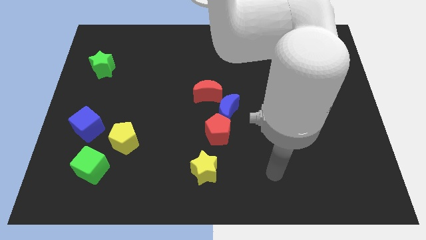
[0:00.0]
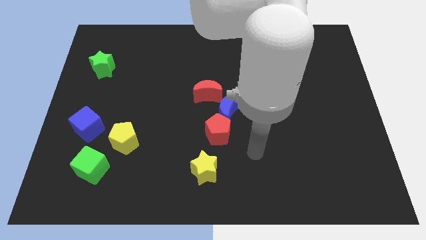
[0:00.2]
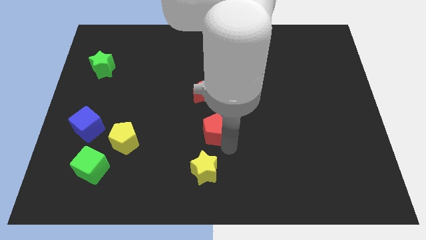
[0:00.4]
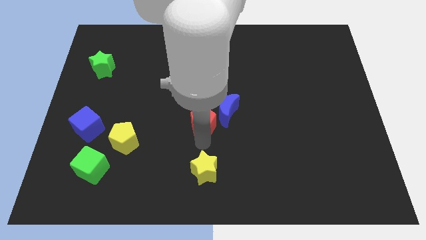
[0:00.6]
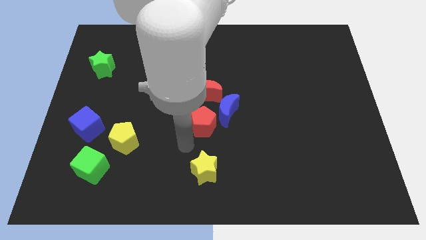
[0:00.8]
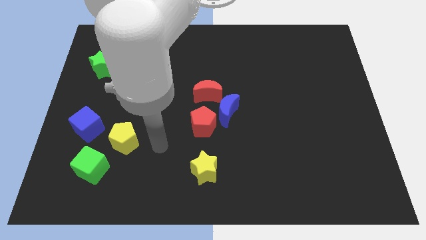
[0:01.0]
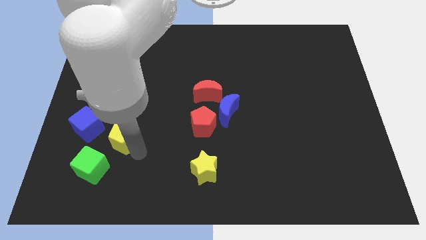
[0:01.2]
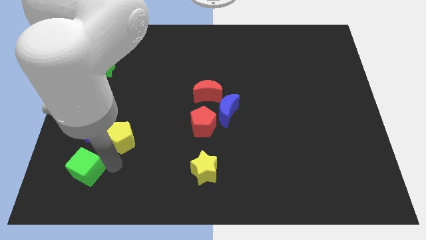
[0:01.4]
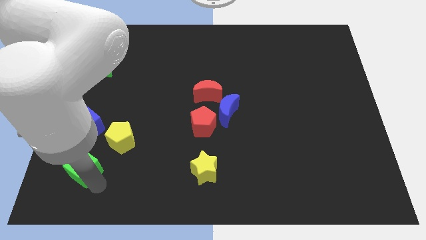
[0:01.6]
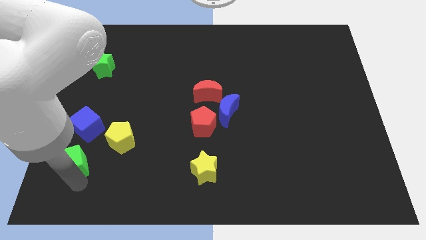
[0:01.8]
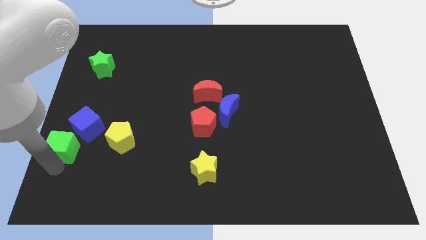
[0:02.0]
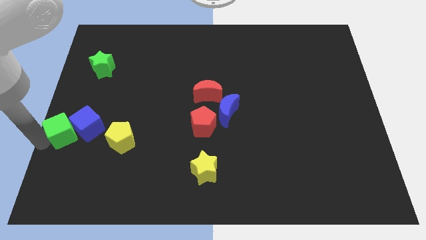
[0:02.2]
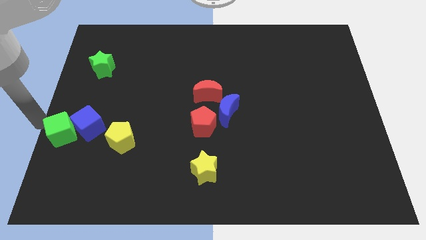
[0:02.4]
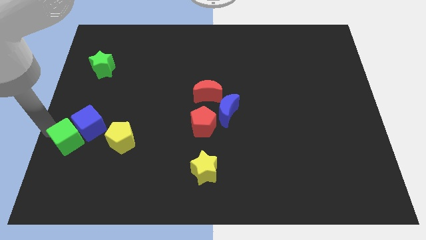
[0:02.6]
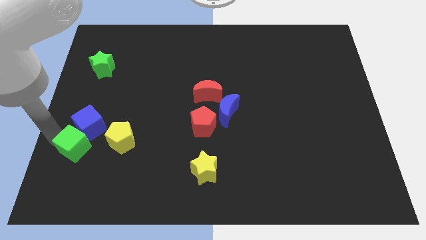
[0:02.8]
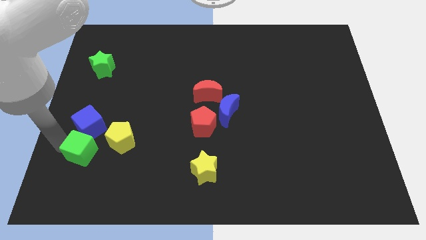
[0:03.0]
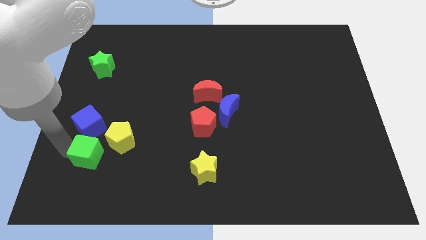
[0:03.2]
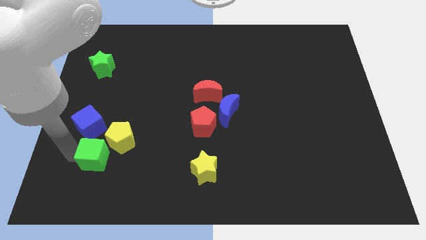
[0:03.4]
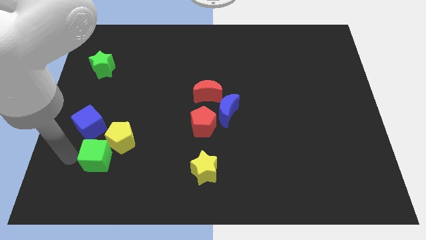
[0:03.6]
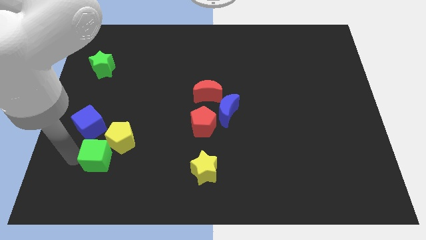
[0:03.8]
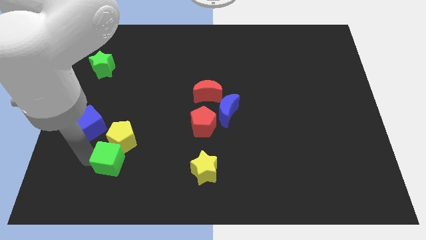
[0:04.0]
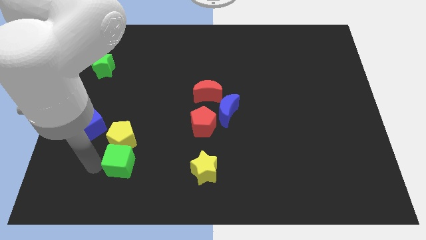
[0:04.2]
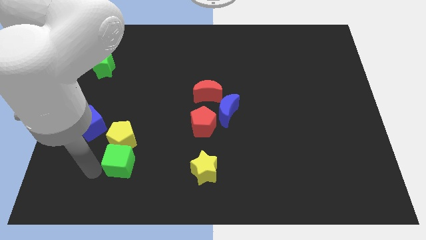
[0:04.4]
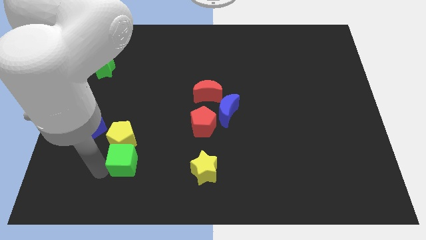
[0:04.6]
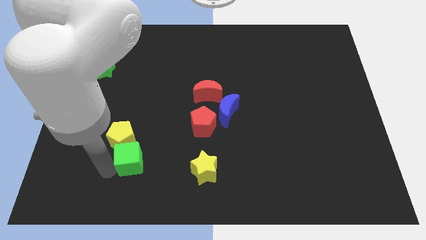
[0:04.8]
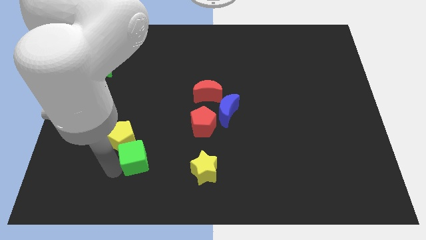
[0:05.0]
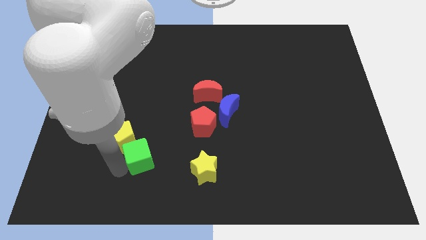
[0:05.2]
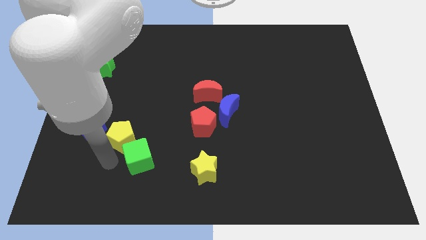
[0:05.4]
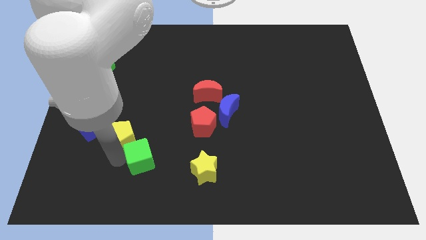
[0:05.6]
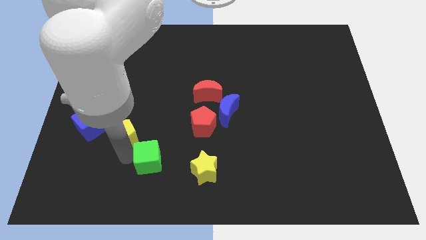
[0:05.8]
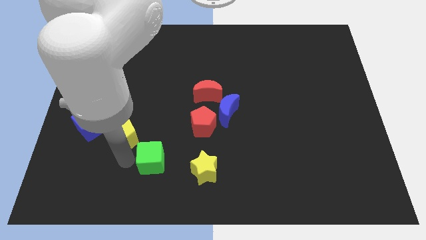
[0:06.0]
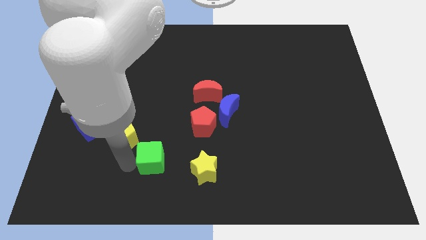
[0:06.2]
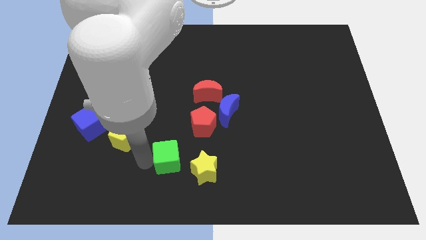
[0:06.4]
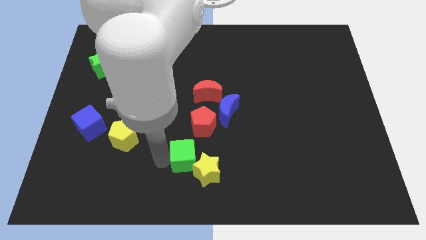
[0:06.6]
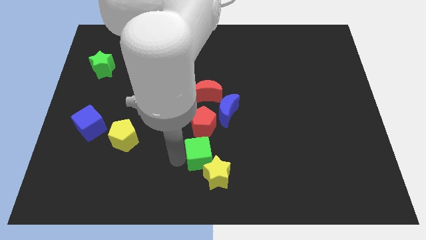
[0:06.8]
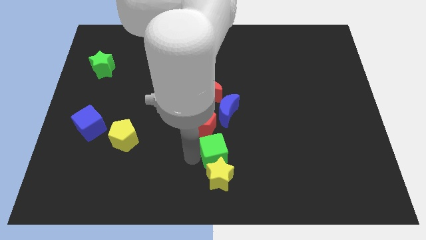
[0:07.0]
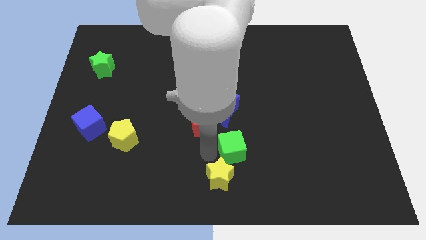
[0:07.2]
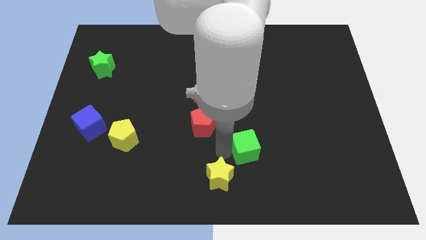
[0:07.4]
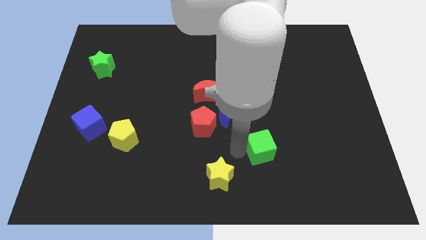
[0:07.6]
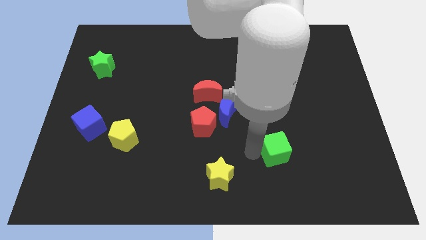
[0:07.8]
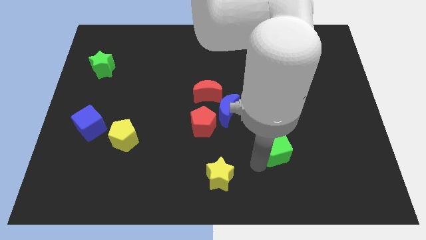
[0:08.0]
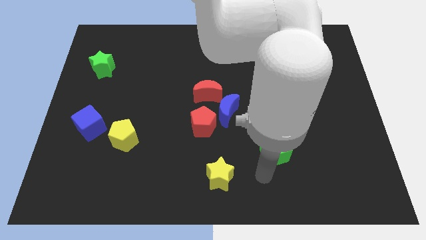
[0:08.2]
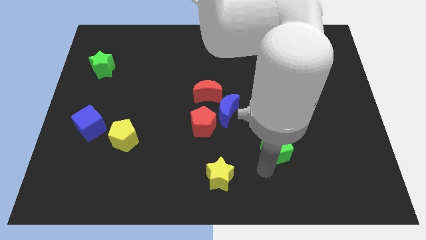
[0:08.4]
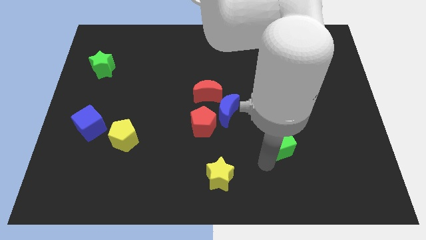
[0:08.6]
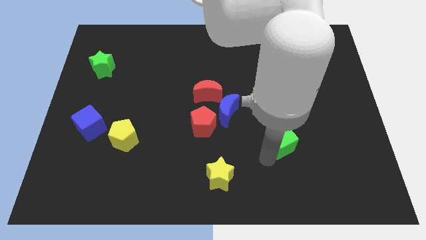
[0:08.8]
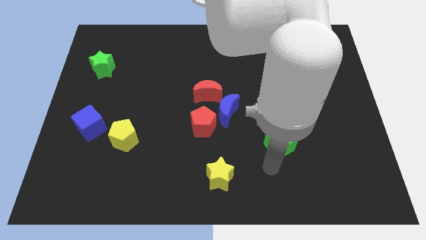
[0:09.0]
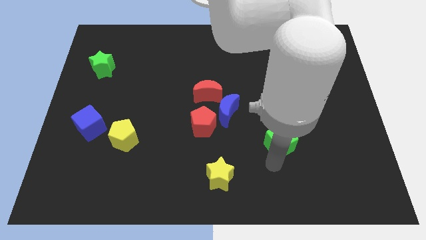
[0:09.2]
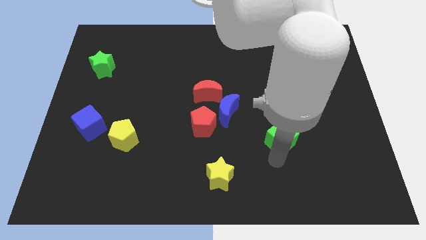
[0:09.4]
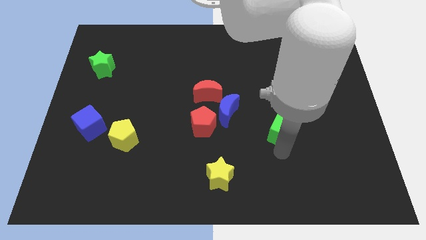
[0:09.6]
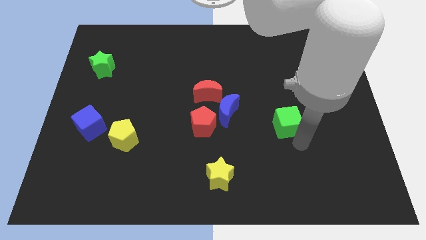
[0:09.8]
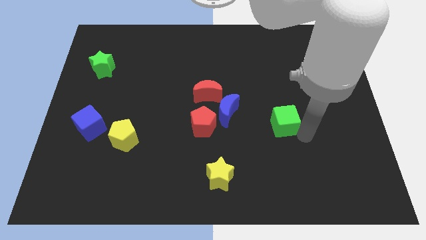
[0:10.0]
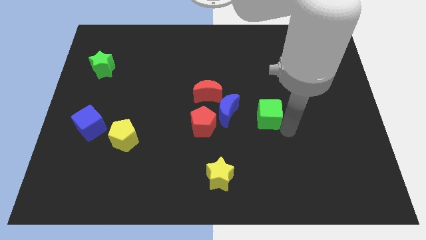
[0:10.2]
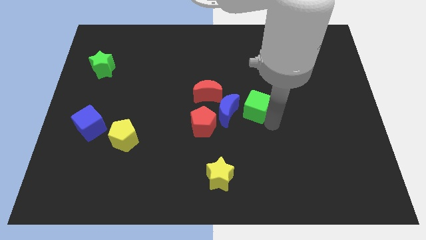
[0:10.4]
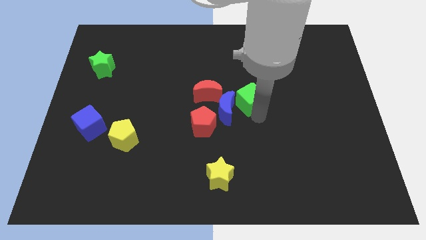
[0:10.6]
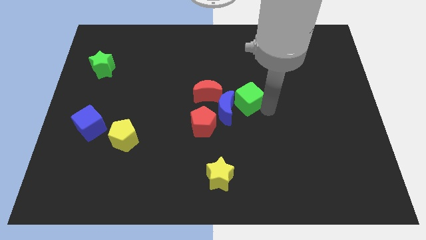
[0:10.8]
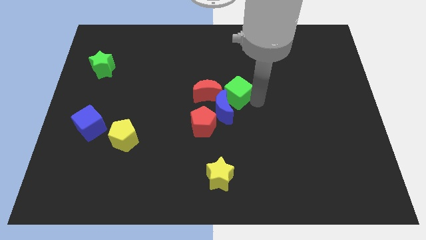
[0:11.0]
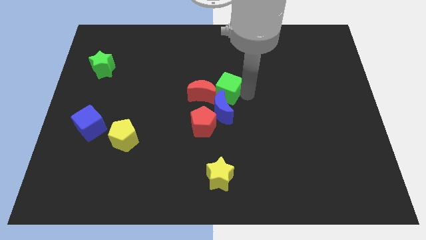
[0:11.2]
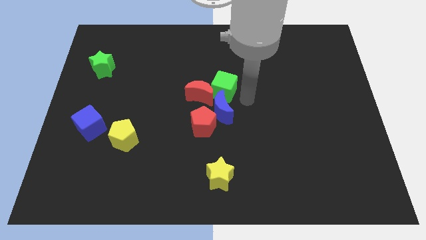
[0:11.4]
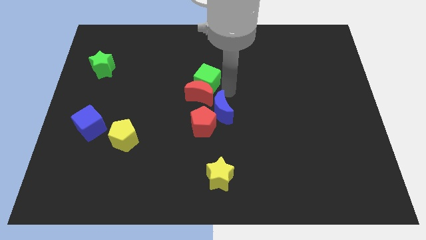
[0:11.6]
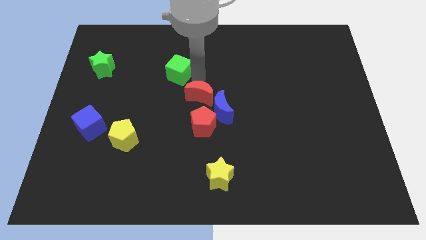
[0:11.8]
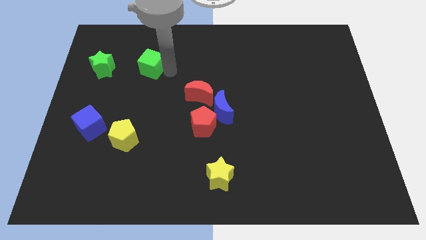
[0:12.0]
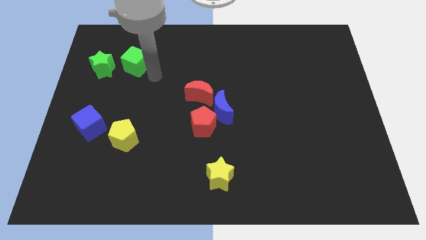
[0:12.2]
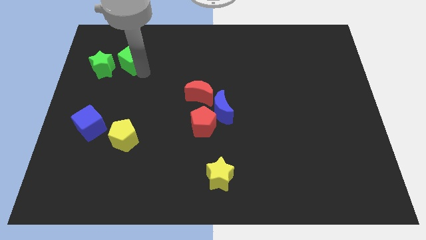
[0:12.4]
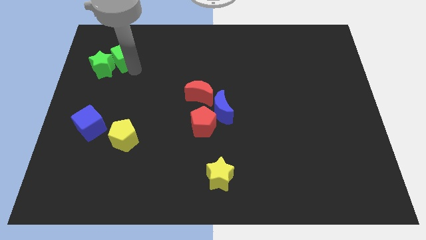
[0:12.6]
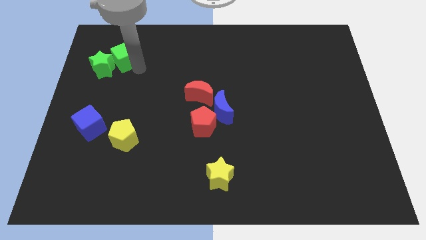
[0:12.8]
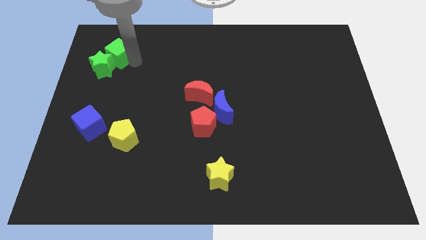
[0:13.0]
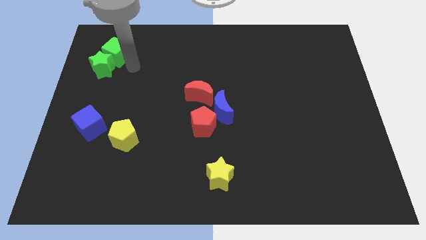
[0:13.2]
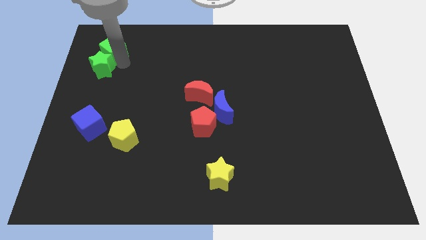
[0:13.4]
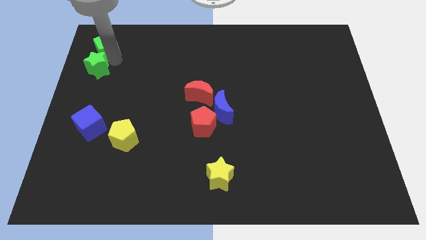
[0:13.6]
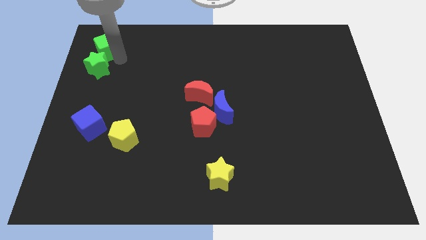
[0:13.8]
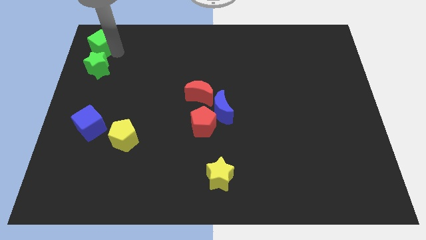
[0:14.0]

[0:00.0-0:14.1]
slide the green cube to the top left corner

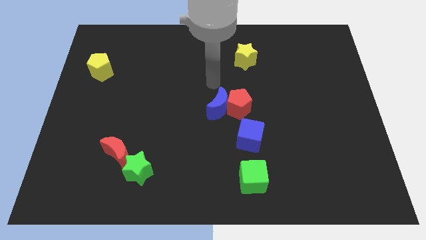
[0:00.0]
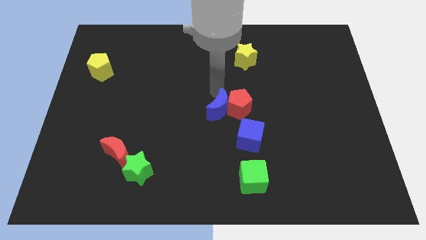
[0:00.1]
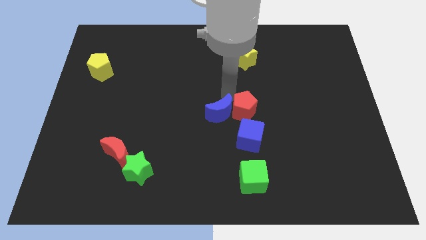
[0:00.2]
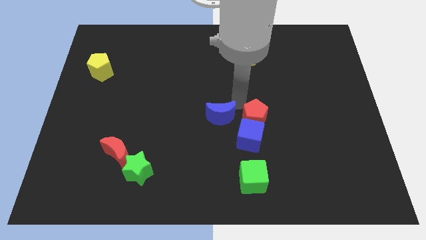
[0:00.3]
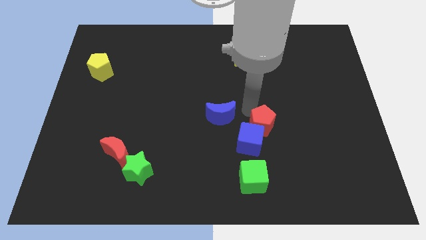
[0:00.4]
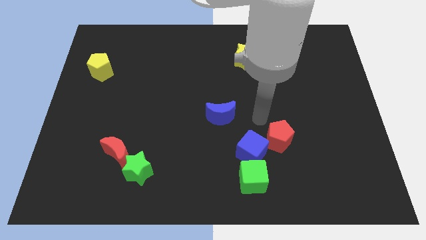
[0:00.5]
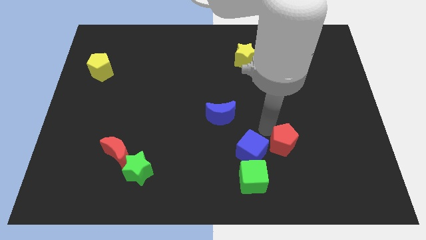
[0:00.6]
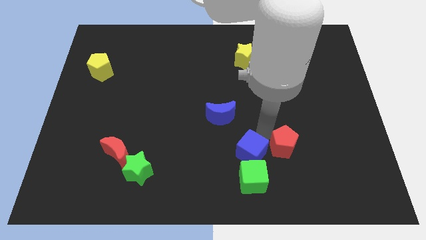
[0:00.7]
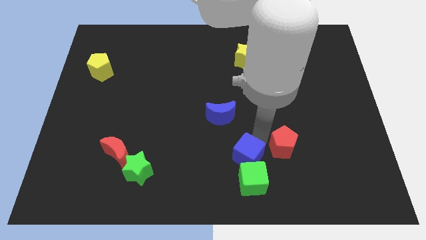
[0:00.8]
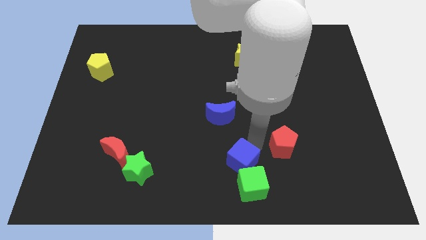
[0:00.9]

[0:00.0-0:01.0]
put the blue cube to the bottom

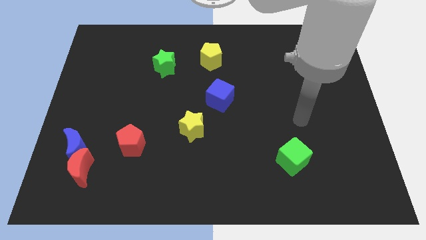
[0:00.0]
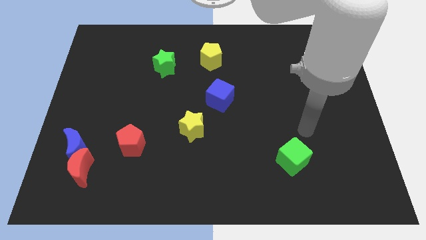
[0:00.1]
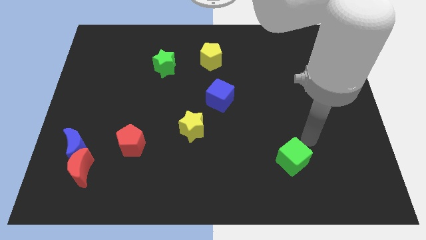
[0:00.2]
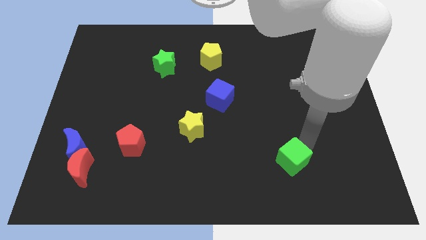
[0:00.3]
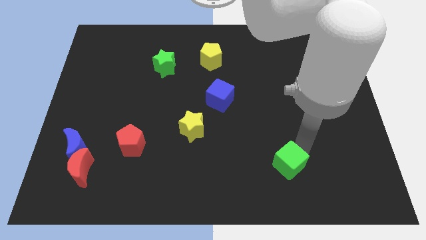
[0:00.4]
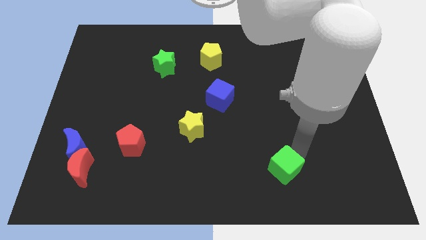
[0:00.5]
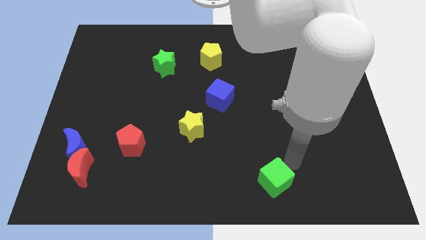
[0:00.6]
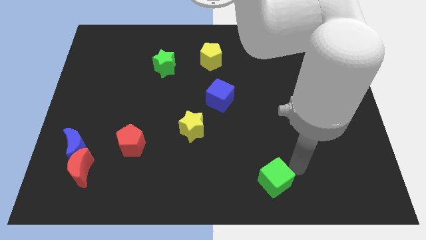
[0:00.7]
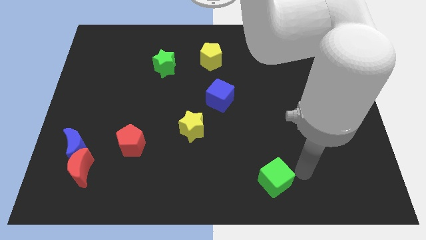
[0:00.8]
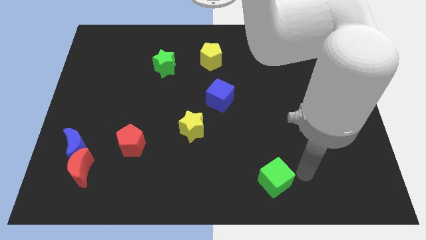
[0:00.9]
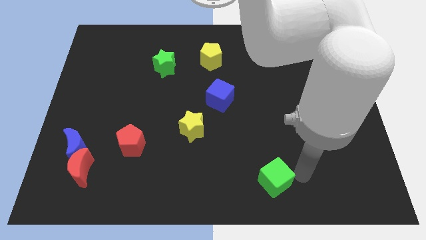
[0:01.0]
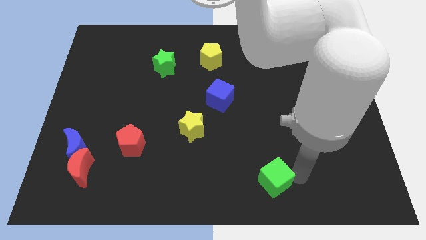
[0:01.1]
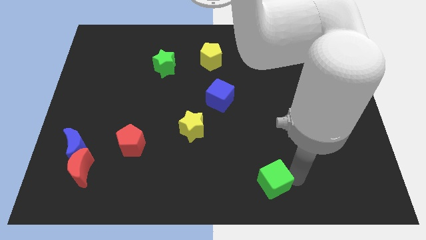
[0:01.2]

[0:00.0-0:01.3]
push the green cube to the bottom side
